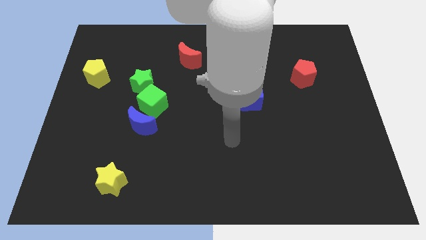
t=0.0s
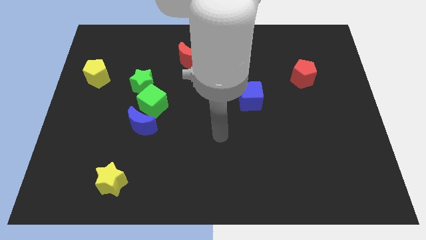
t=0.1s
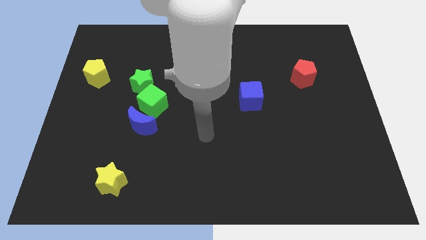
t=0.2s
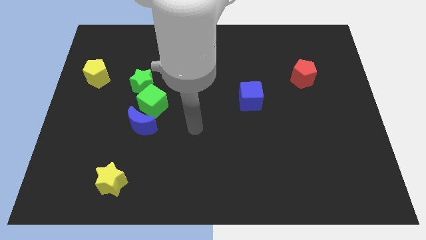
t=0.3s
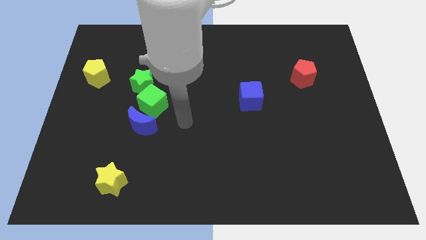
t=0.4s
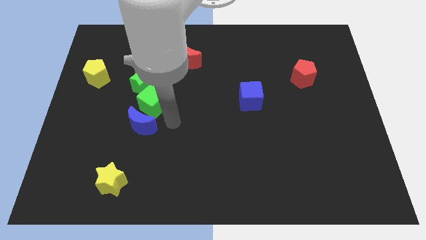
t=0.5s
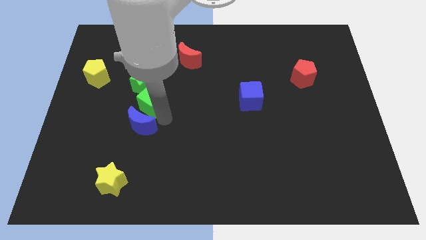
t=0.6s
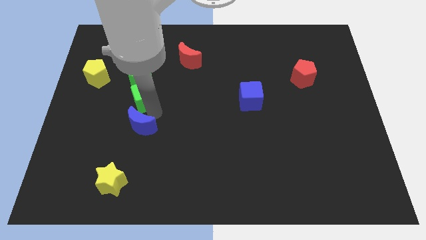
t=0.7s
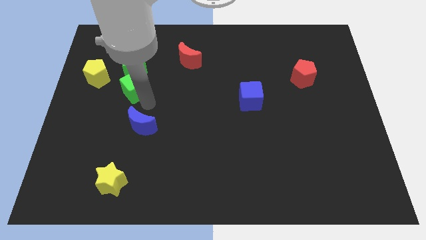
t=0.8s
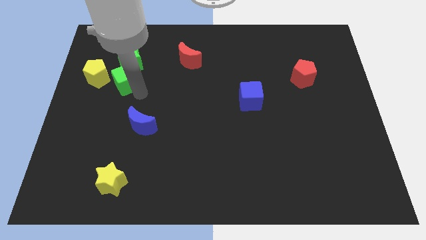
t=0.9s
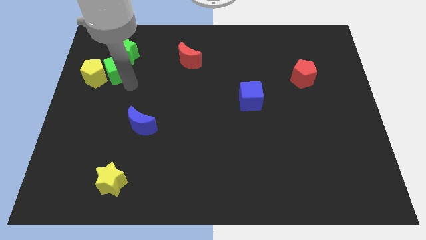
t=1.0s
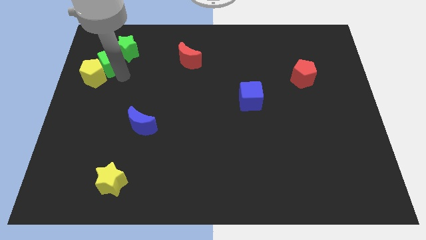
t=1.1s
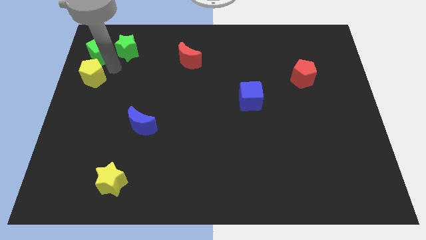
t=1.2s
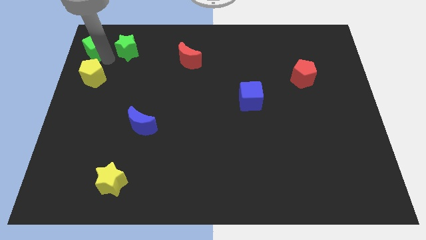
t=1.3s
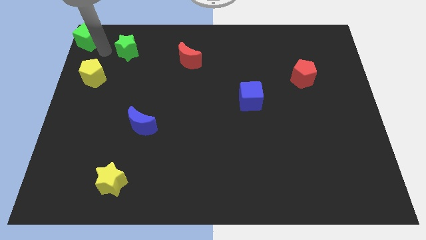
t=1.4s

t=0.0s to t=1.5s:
move the green star away from the green cube

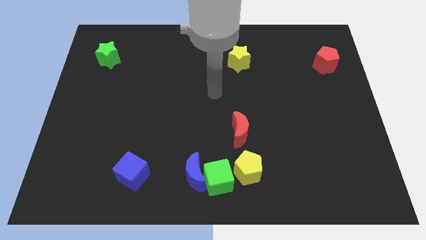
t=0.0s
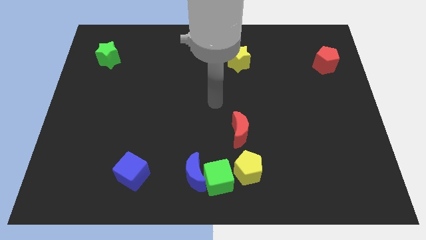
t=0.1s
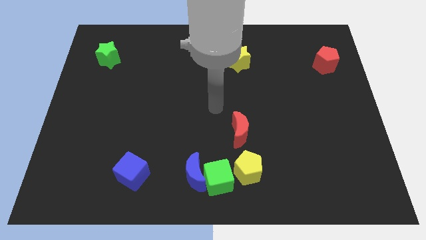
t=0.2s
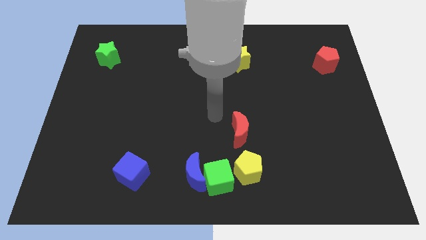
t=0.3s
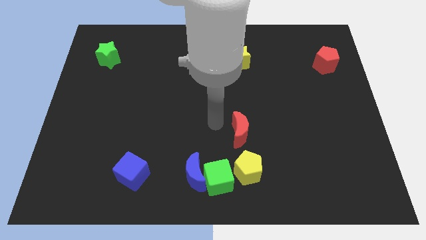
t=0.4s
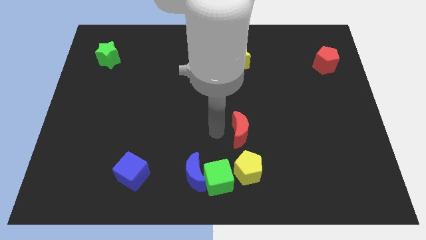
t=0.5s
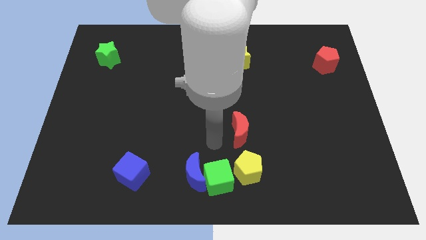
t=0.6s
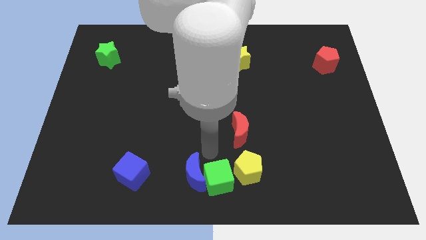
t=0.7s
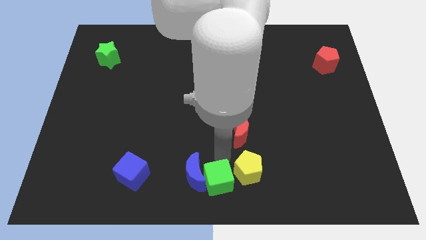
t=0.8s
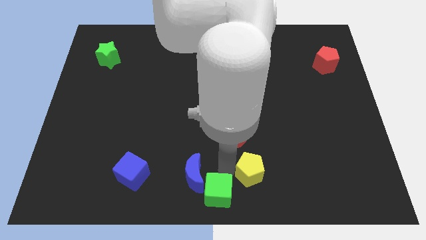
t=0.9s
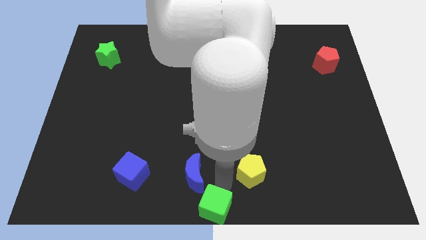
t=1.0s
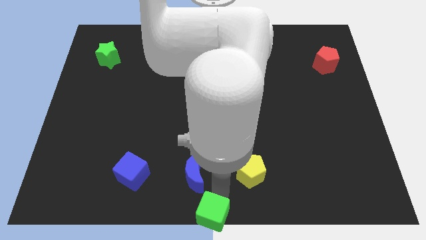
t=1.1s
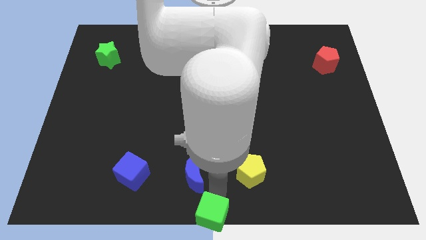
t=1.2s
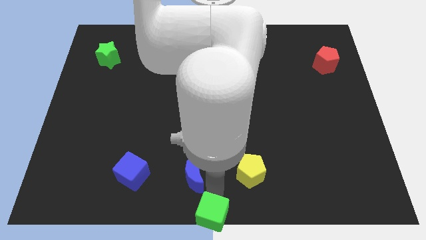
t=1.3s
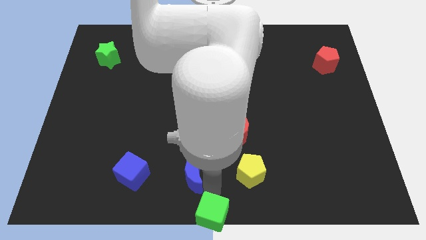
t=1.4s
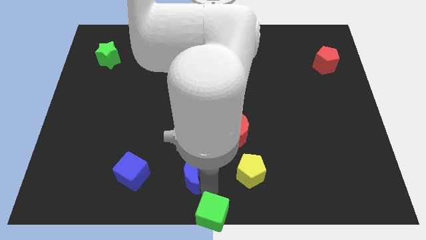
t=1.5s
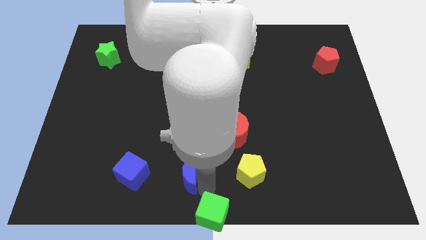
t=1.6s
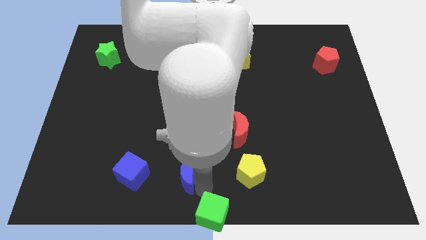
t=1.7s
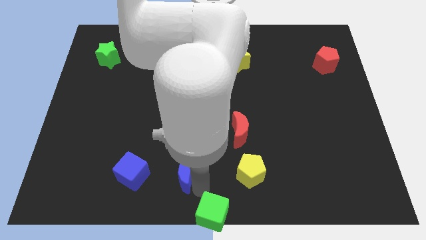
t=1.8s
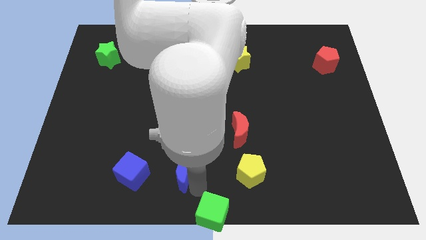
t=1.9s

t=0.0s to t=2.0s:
separate the blue moon from the green cube

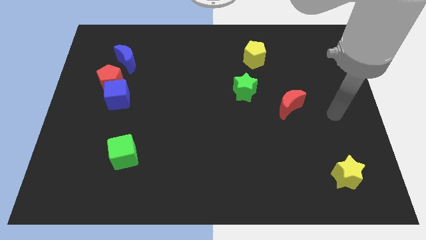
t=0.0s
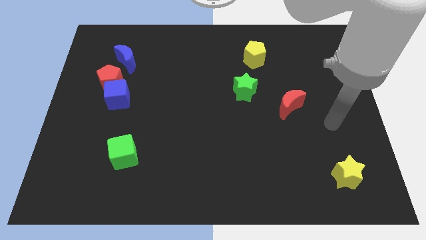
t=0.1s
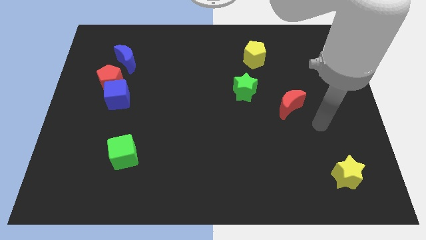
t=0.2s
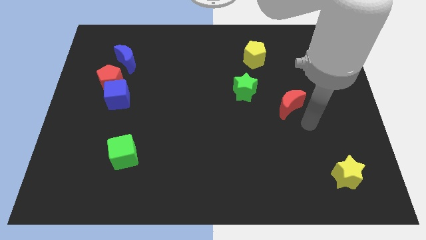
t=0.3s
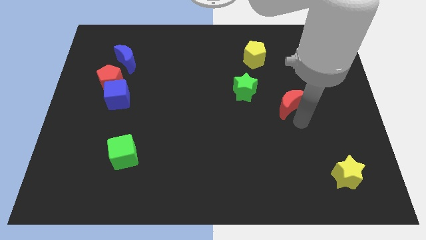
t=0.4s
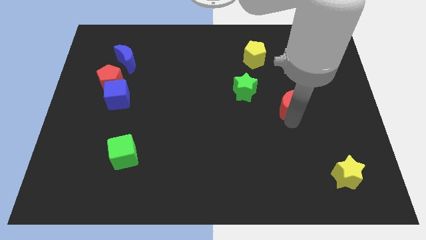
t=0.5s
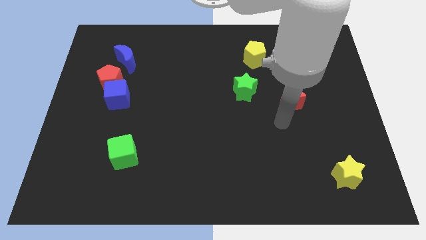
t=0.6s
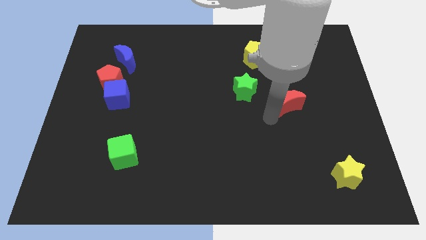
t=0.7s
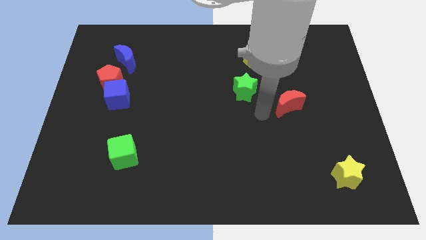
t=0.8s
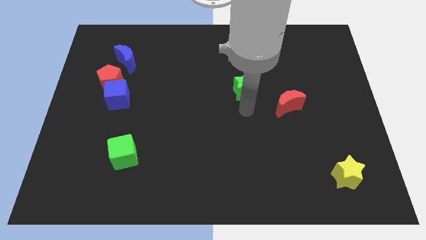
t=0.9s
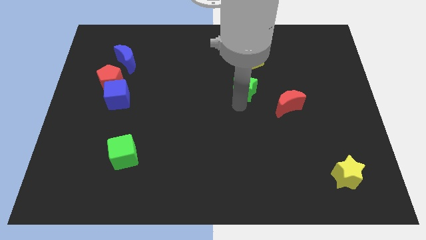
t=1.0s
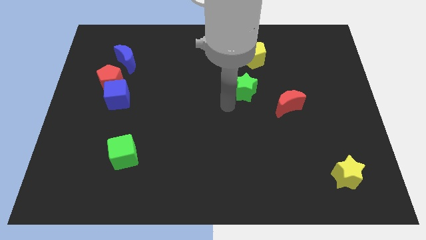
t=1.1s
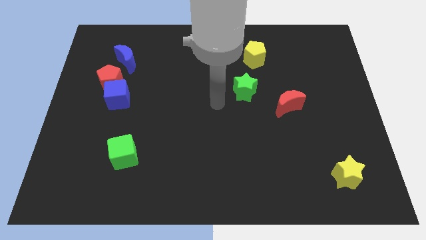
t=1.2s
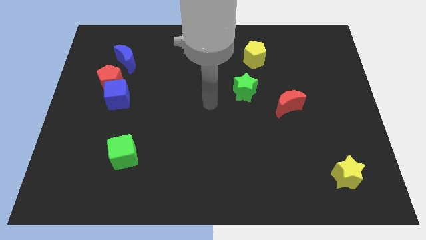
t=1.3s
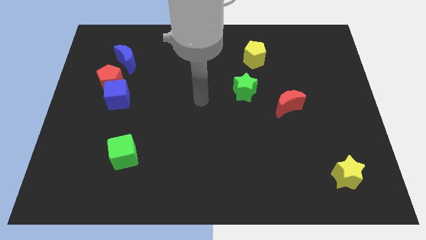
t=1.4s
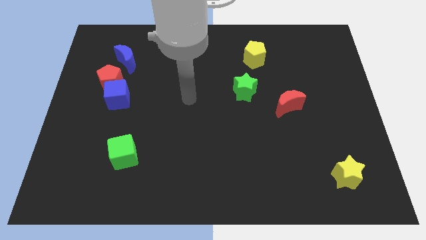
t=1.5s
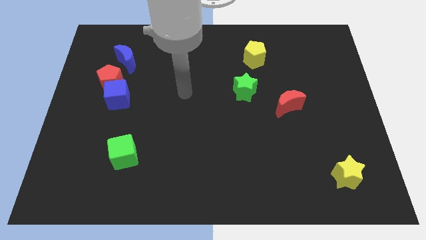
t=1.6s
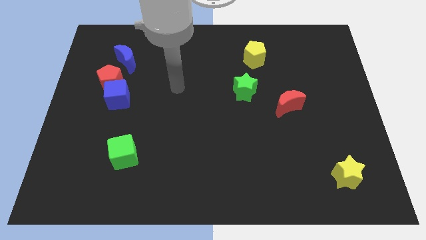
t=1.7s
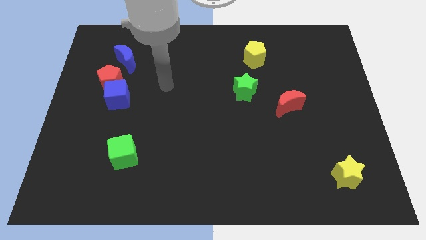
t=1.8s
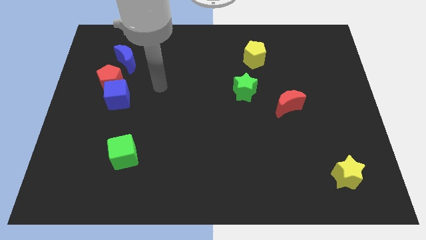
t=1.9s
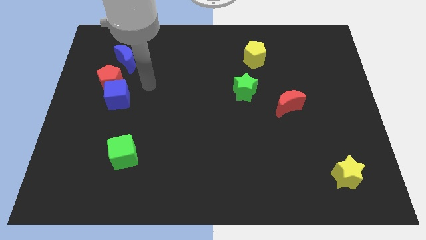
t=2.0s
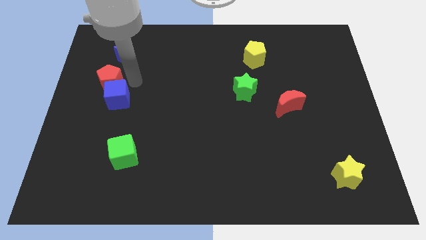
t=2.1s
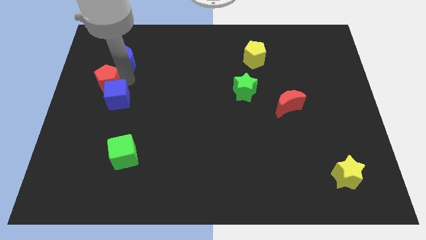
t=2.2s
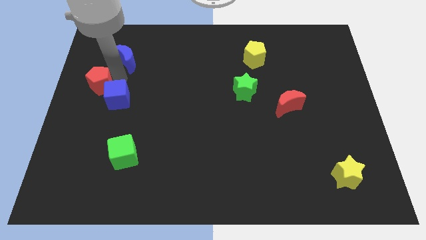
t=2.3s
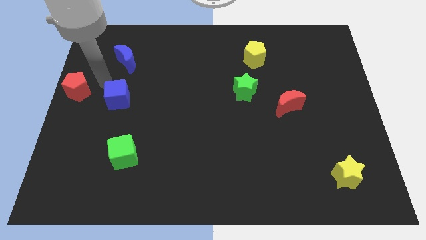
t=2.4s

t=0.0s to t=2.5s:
move the blue cube away from the red pentagon

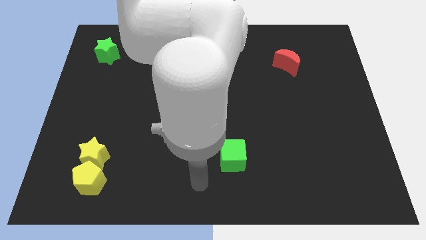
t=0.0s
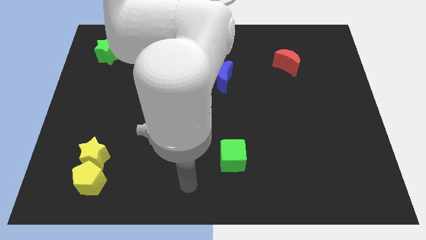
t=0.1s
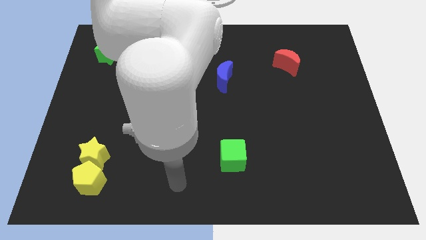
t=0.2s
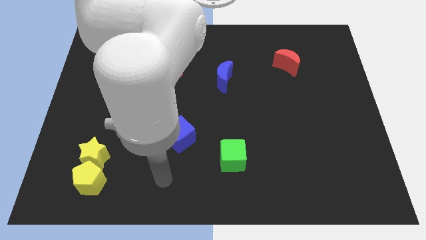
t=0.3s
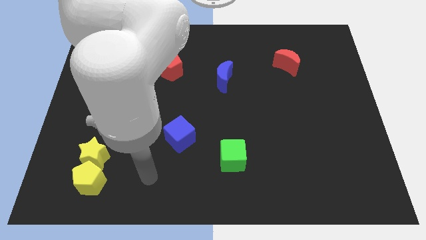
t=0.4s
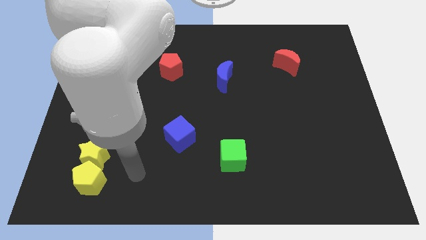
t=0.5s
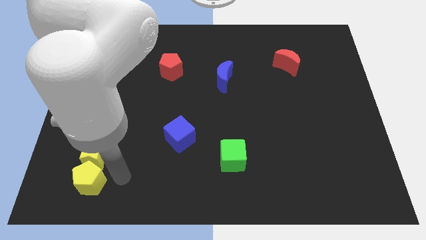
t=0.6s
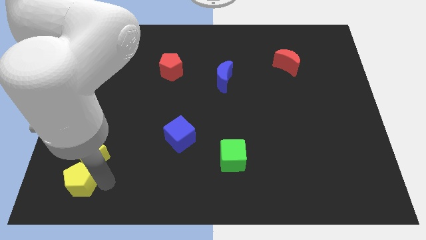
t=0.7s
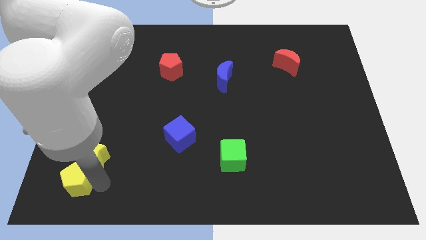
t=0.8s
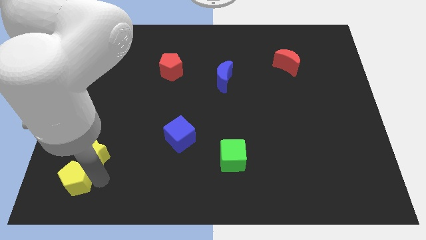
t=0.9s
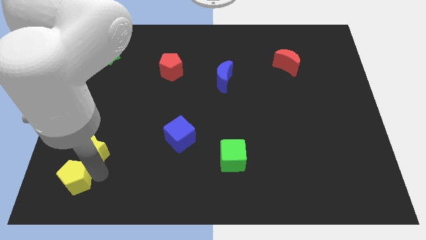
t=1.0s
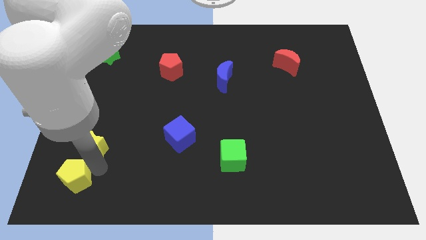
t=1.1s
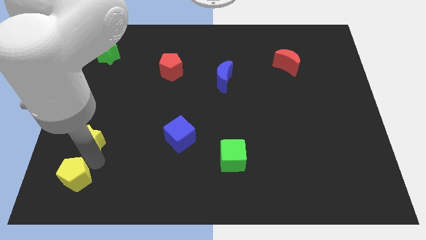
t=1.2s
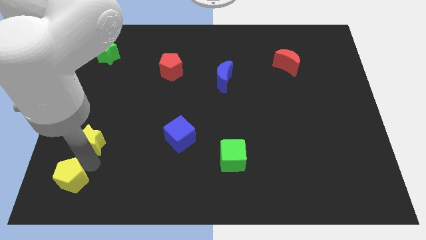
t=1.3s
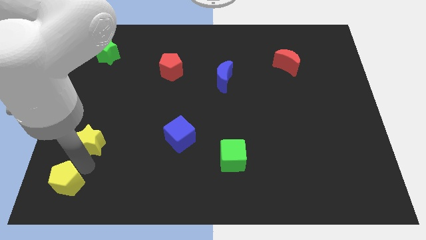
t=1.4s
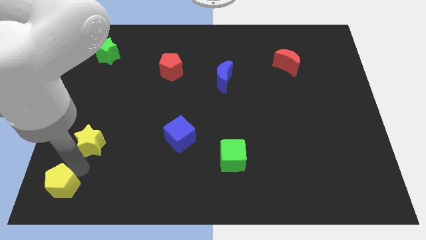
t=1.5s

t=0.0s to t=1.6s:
pull the yellow star apart from the yellow pentagon

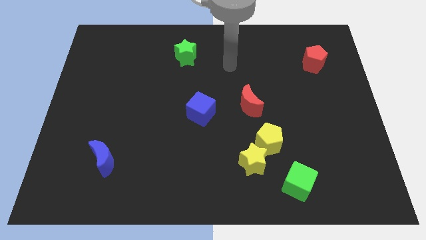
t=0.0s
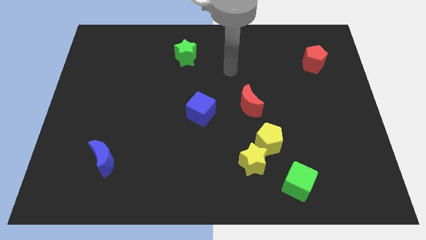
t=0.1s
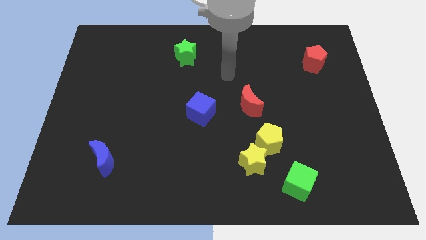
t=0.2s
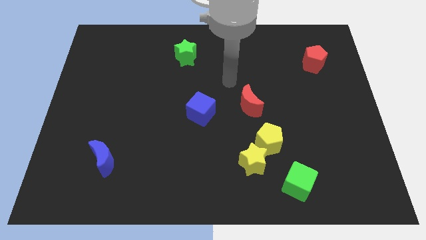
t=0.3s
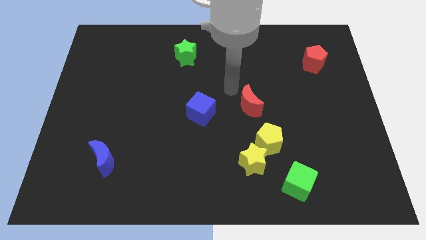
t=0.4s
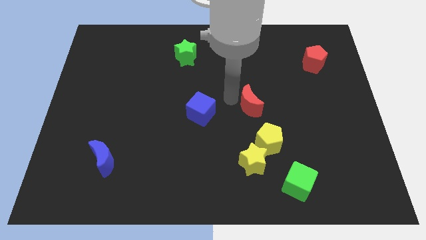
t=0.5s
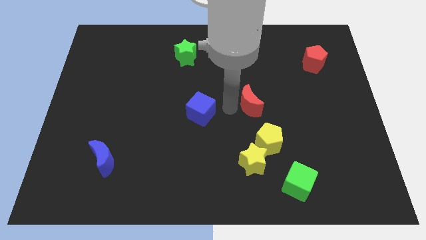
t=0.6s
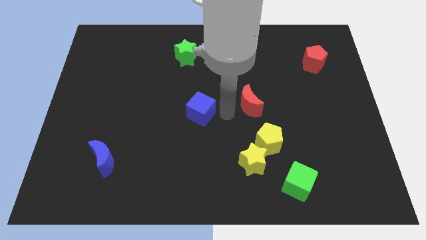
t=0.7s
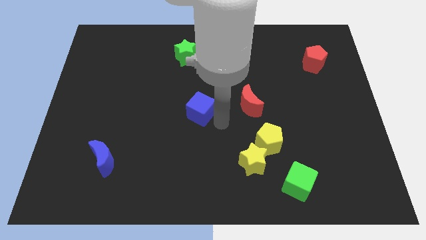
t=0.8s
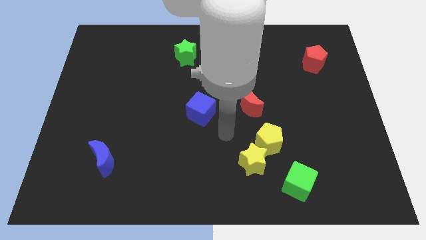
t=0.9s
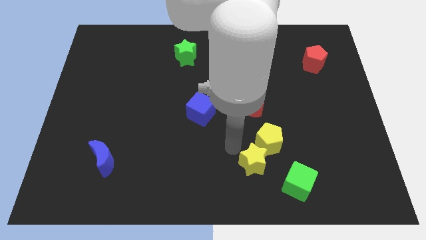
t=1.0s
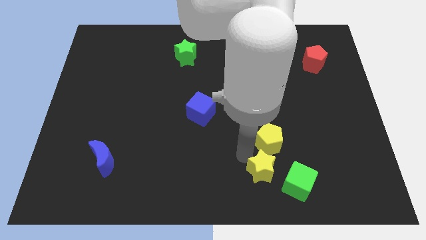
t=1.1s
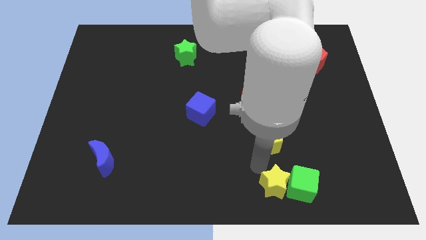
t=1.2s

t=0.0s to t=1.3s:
move the yellow pentagon away from the yellow star

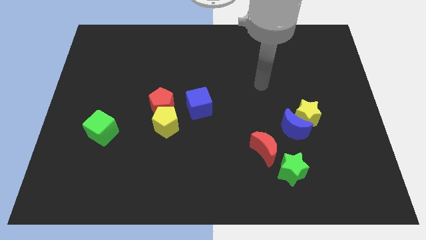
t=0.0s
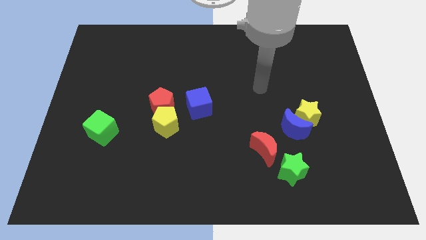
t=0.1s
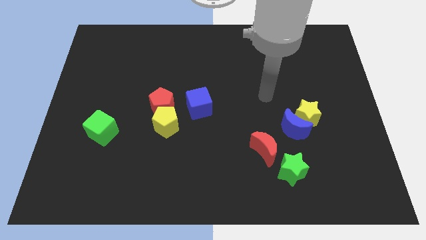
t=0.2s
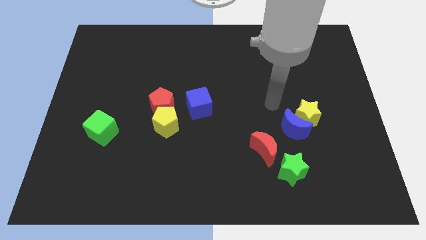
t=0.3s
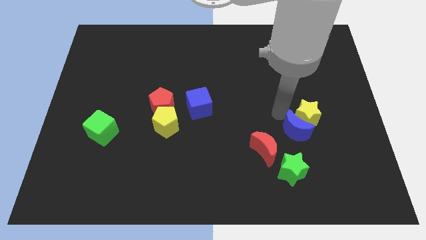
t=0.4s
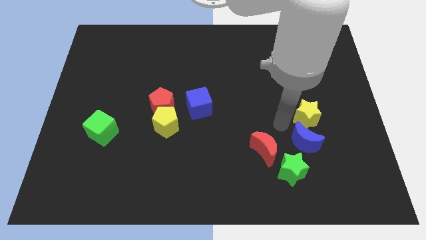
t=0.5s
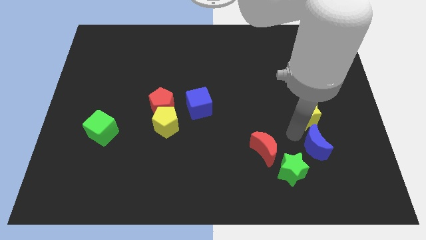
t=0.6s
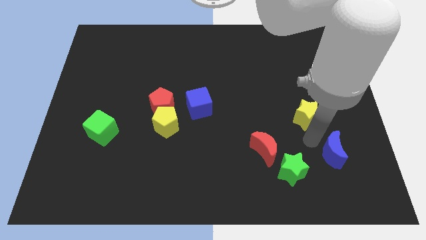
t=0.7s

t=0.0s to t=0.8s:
move the yellow star away from the blue moon
